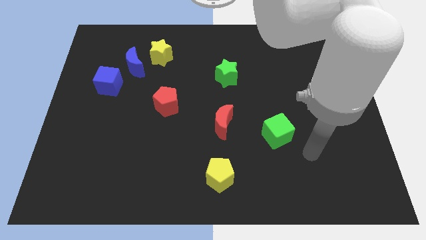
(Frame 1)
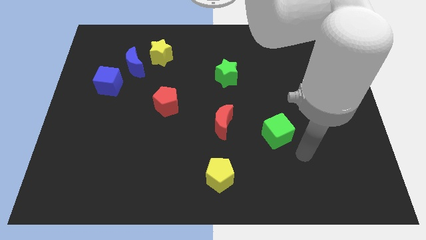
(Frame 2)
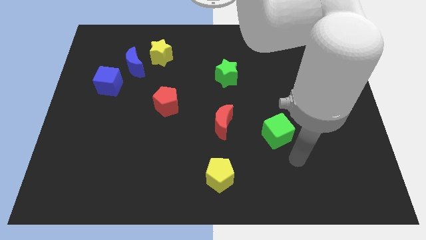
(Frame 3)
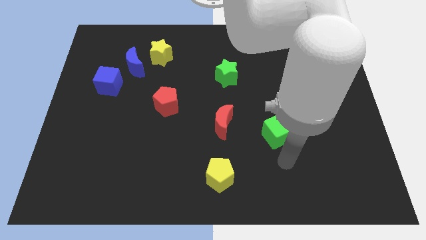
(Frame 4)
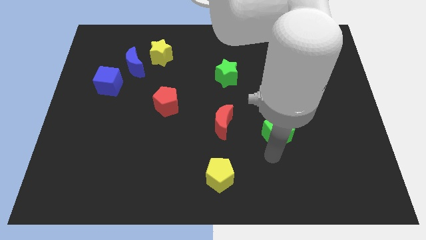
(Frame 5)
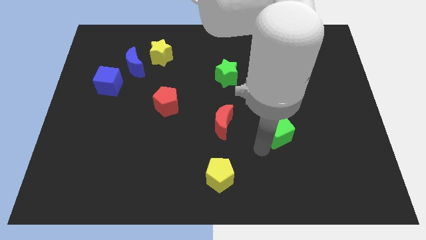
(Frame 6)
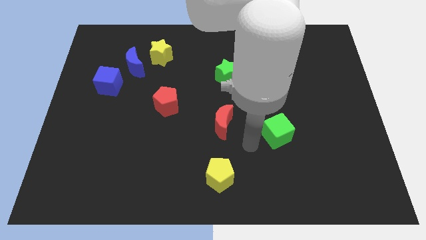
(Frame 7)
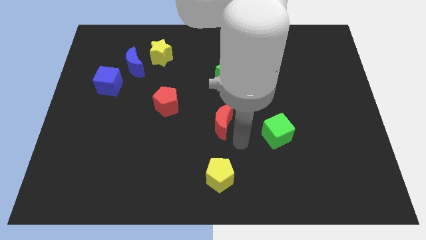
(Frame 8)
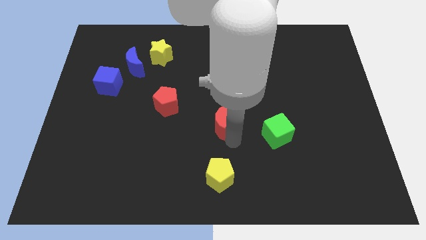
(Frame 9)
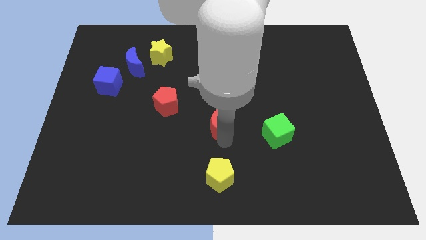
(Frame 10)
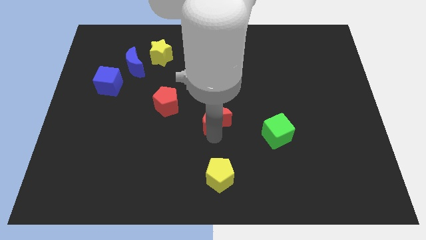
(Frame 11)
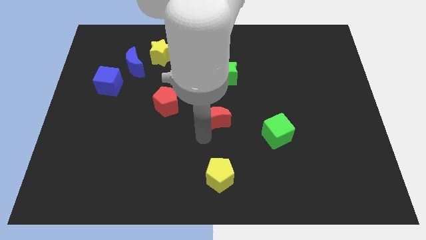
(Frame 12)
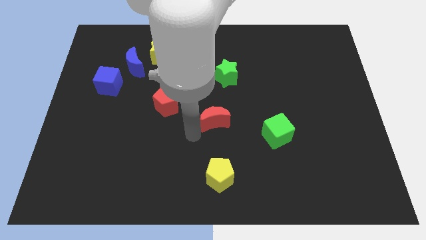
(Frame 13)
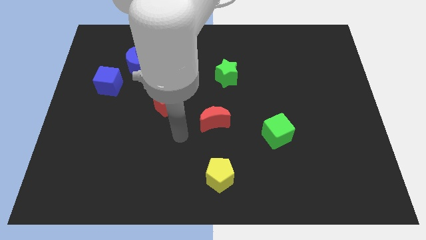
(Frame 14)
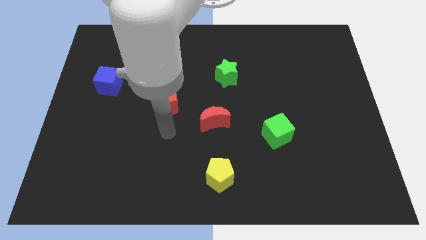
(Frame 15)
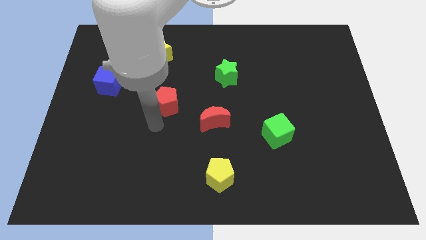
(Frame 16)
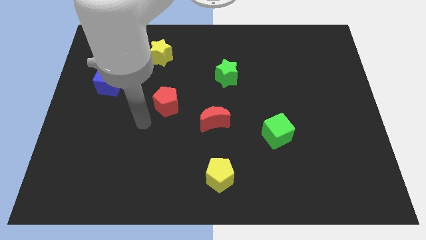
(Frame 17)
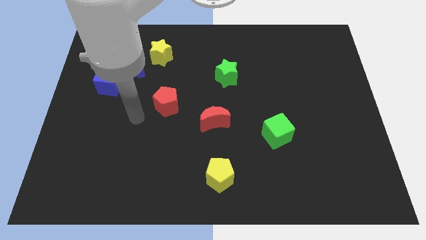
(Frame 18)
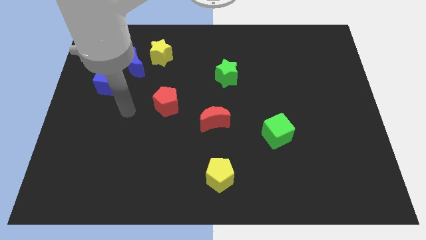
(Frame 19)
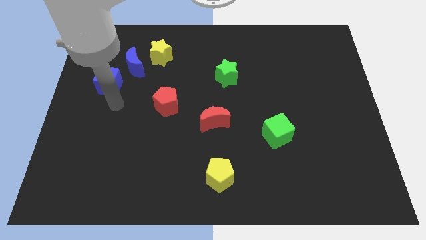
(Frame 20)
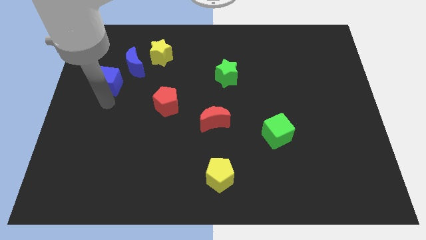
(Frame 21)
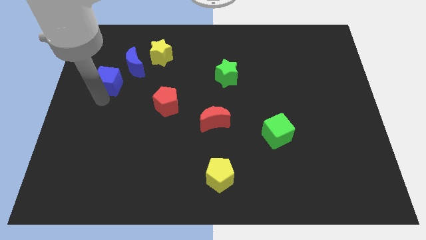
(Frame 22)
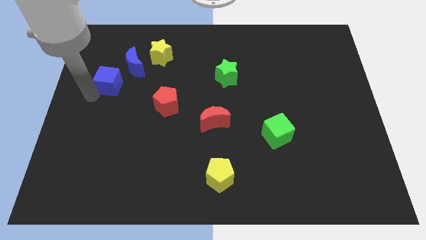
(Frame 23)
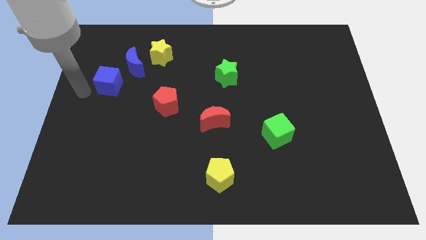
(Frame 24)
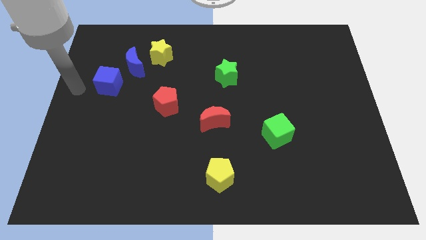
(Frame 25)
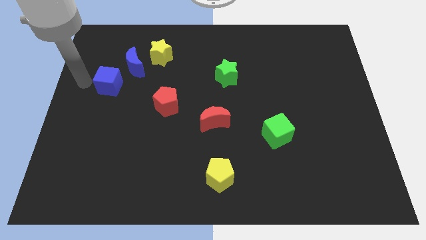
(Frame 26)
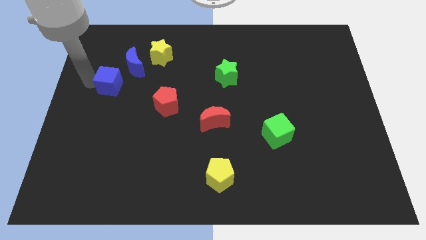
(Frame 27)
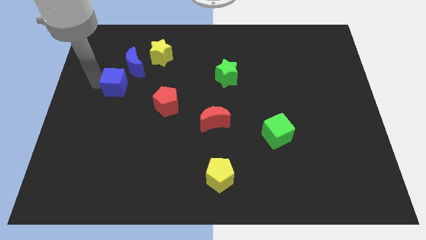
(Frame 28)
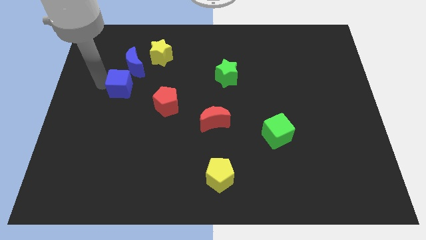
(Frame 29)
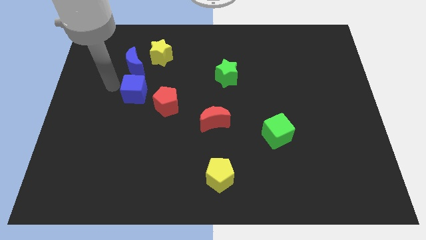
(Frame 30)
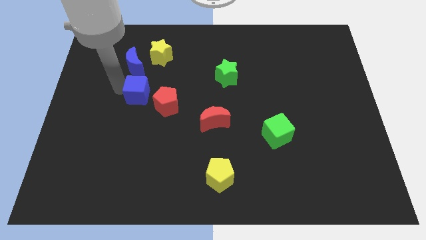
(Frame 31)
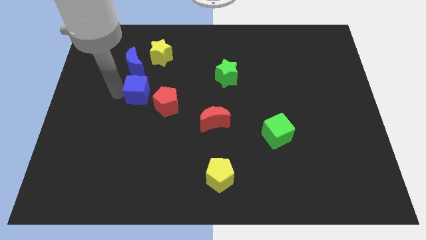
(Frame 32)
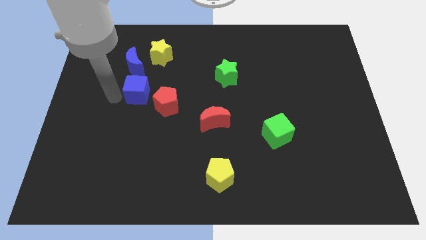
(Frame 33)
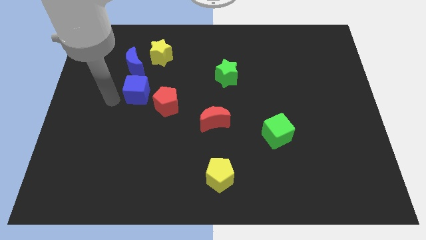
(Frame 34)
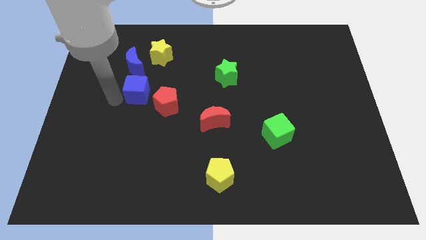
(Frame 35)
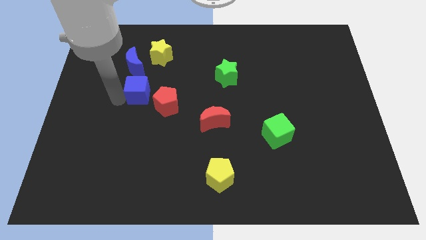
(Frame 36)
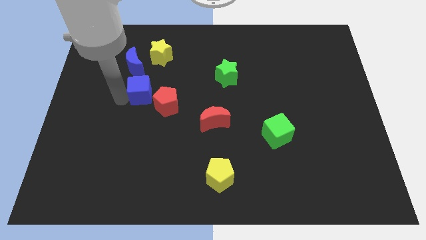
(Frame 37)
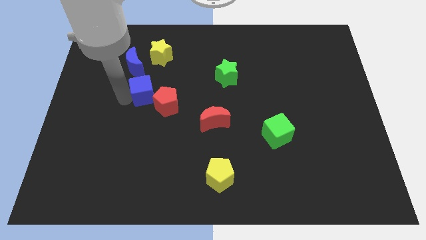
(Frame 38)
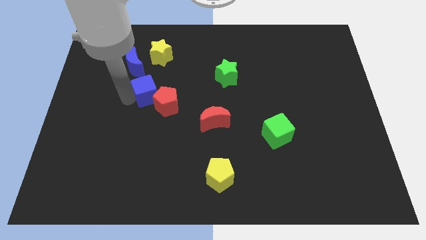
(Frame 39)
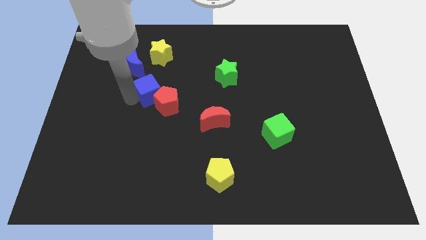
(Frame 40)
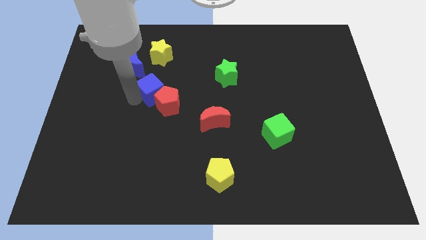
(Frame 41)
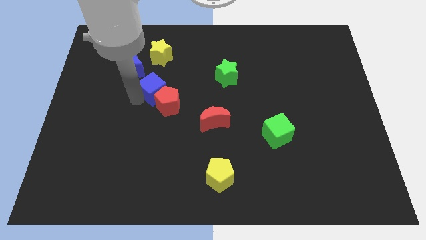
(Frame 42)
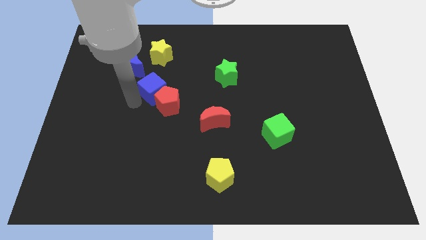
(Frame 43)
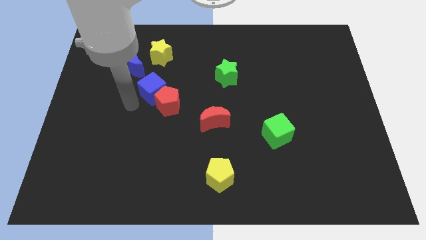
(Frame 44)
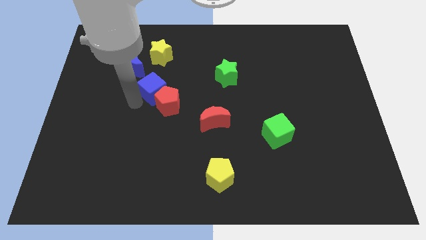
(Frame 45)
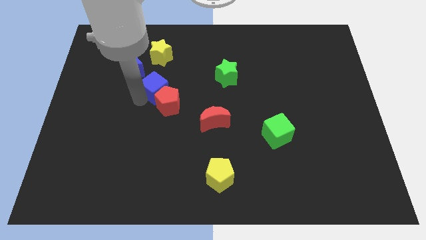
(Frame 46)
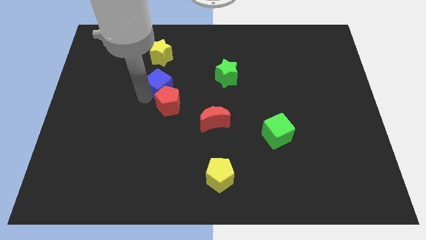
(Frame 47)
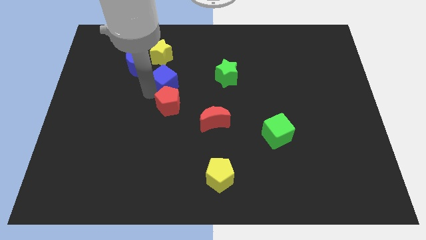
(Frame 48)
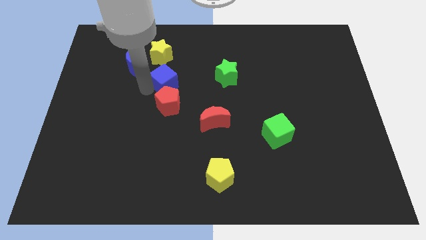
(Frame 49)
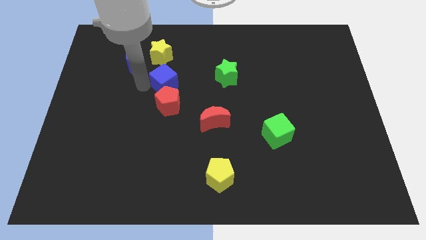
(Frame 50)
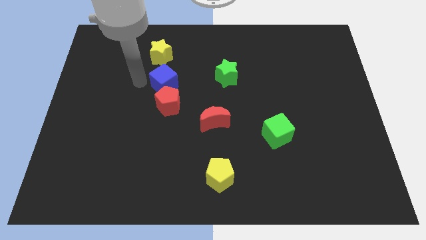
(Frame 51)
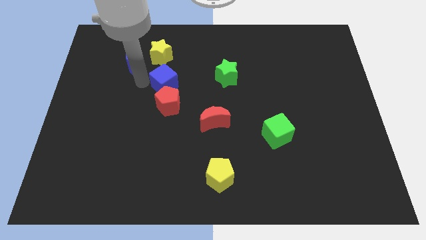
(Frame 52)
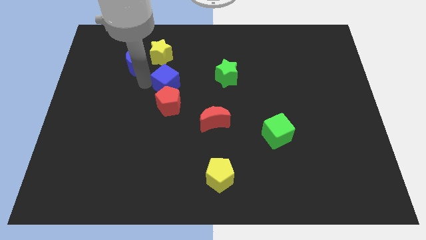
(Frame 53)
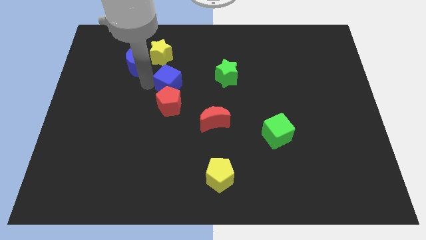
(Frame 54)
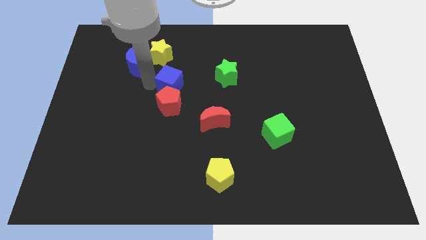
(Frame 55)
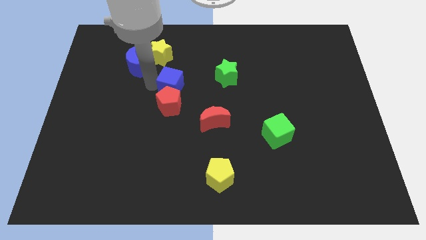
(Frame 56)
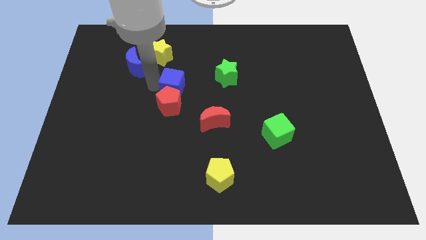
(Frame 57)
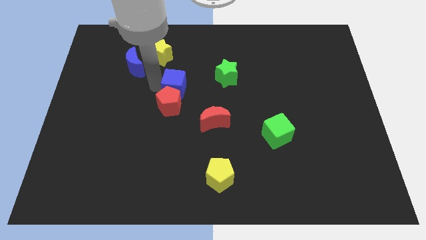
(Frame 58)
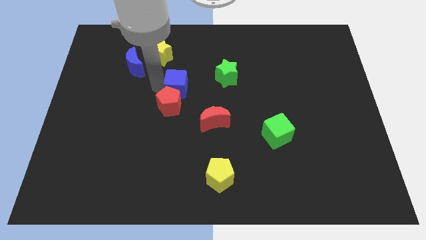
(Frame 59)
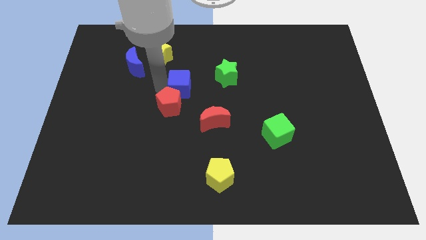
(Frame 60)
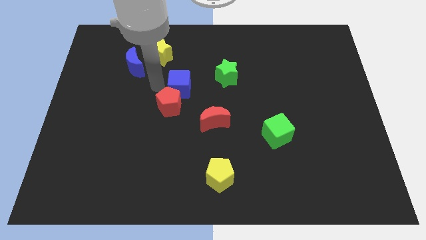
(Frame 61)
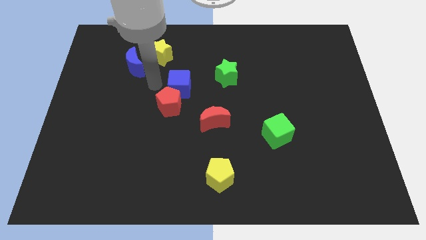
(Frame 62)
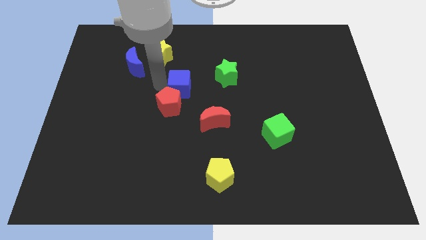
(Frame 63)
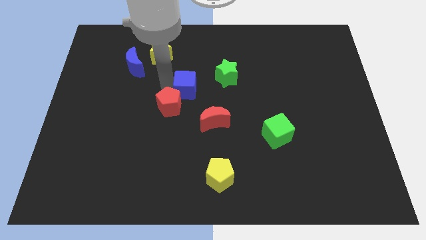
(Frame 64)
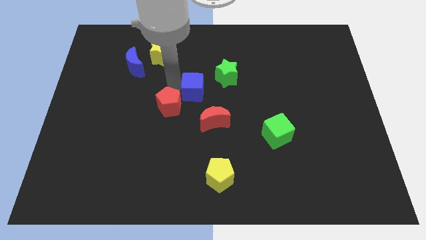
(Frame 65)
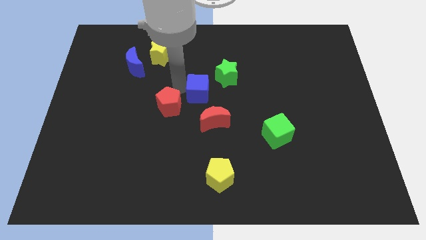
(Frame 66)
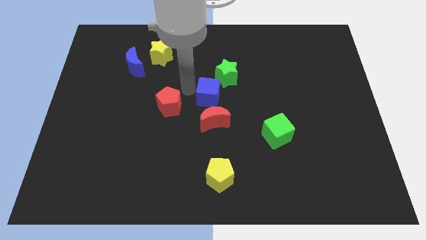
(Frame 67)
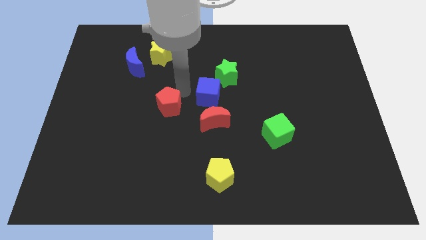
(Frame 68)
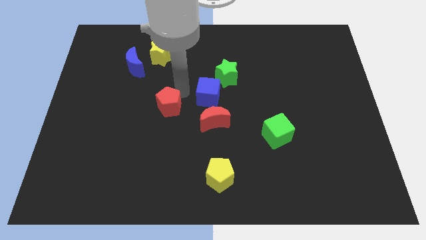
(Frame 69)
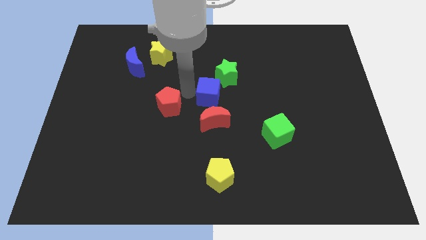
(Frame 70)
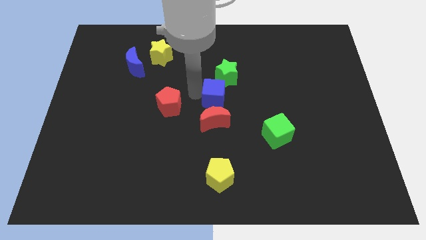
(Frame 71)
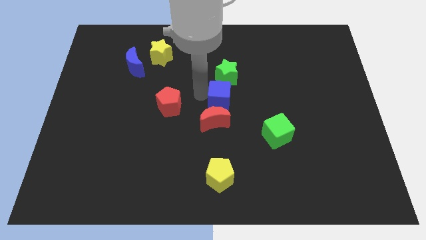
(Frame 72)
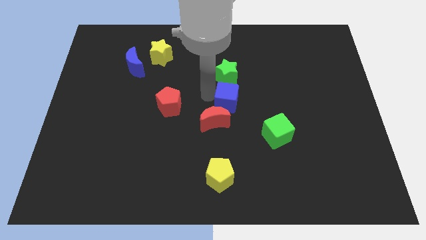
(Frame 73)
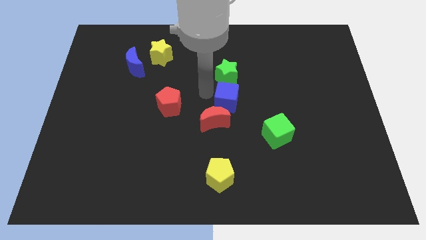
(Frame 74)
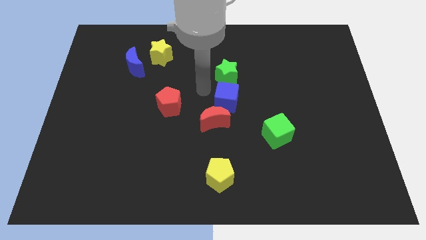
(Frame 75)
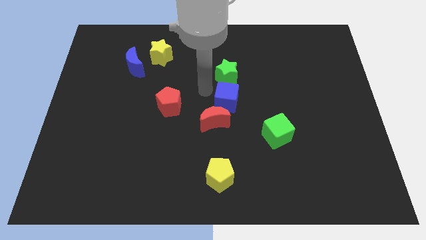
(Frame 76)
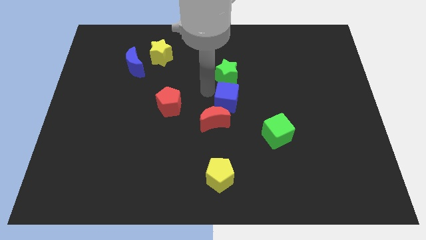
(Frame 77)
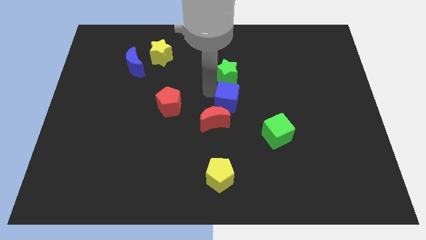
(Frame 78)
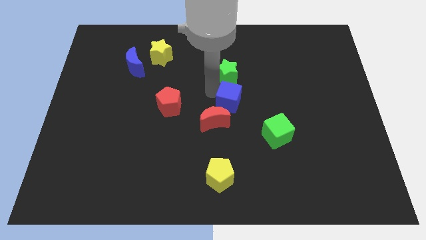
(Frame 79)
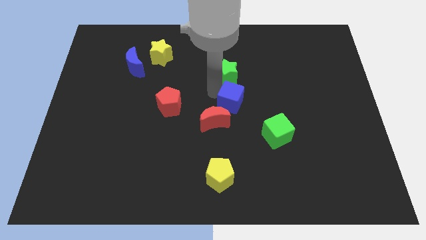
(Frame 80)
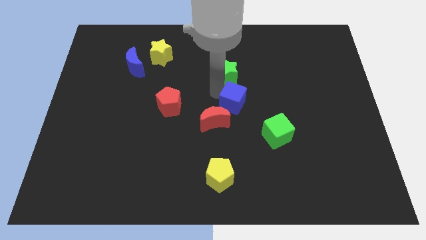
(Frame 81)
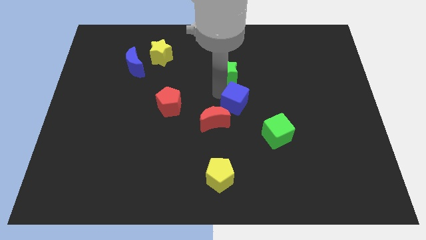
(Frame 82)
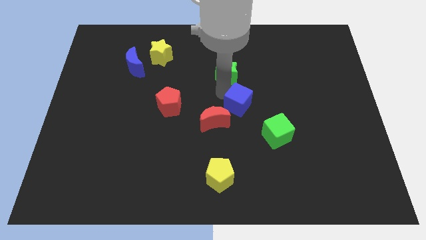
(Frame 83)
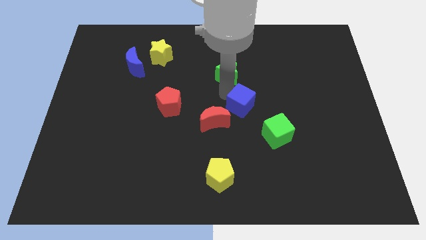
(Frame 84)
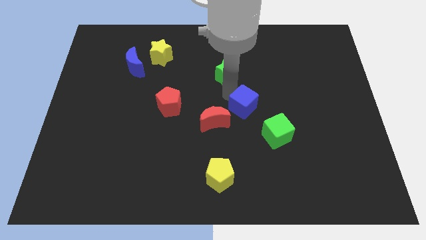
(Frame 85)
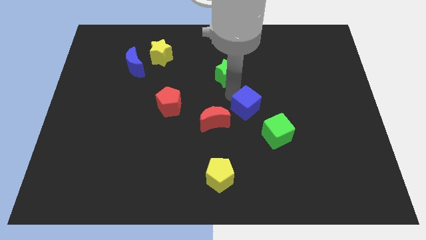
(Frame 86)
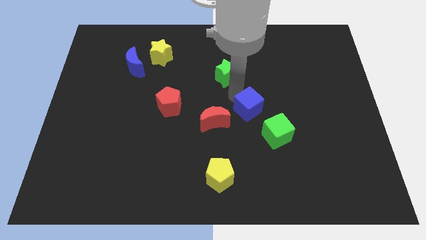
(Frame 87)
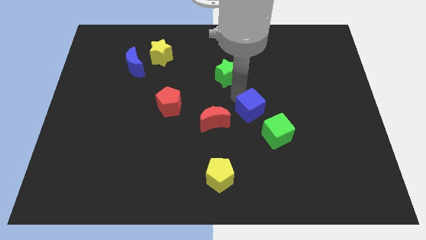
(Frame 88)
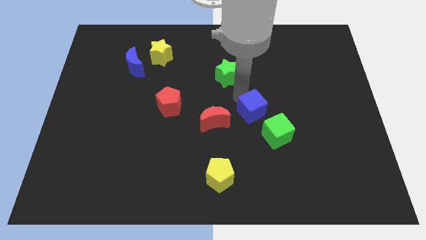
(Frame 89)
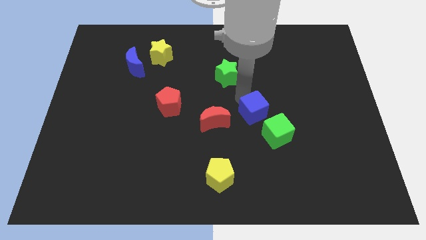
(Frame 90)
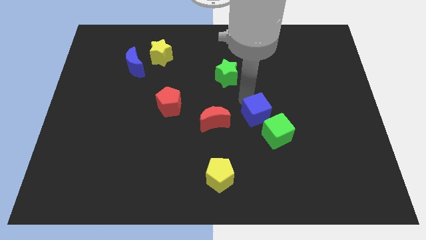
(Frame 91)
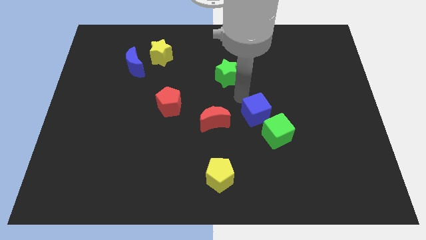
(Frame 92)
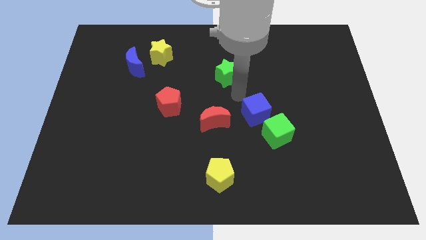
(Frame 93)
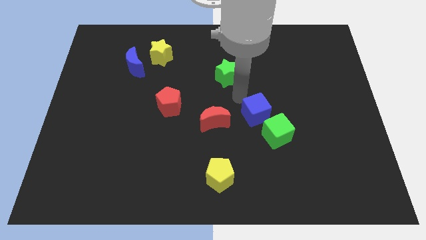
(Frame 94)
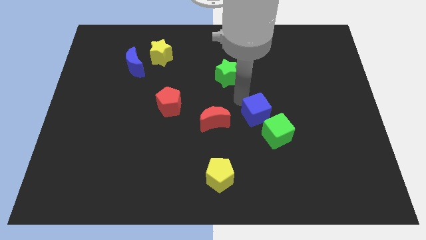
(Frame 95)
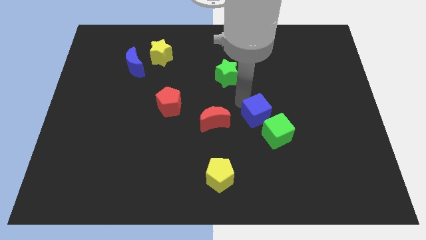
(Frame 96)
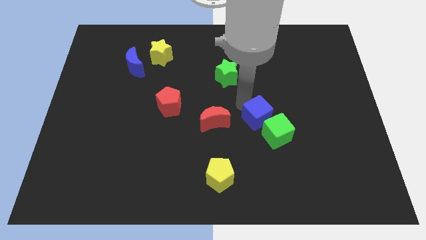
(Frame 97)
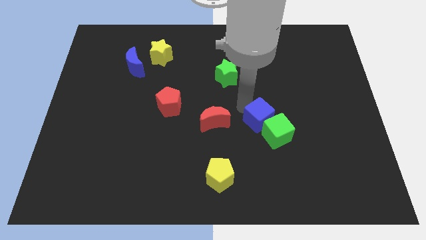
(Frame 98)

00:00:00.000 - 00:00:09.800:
put the blue cube to the green cube
